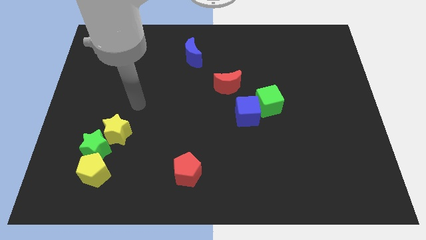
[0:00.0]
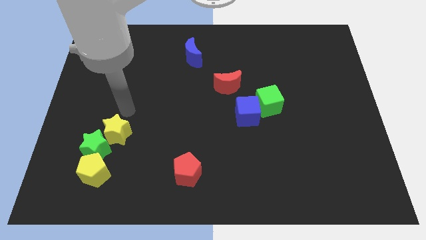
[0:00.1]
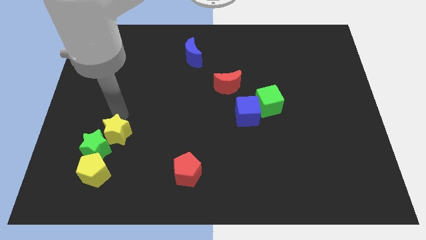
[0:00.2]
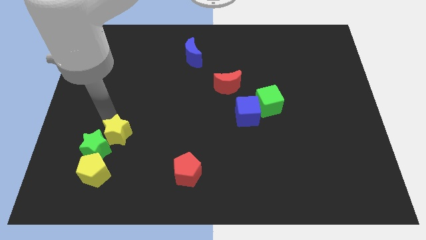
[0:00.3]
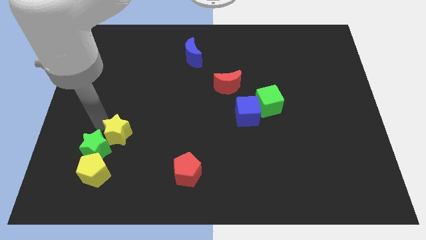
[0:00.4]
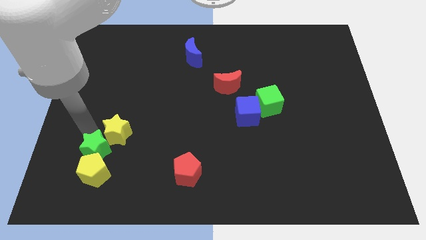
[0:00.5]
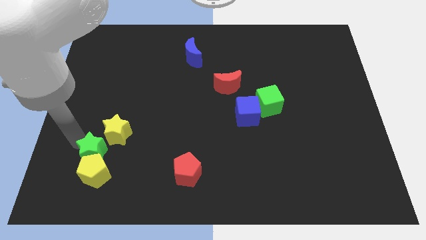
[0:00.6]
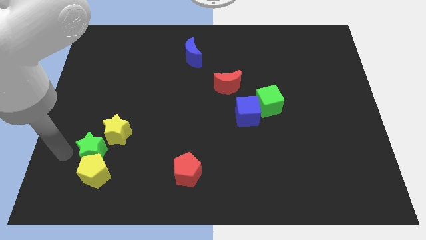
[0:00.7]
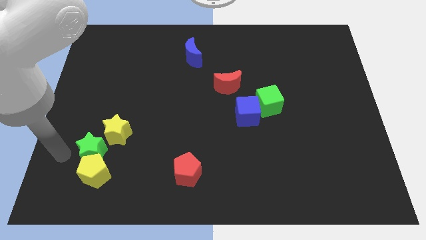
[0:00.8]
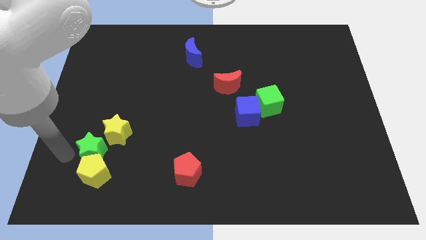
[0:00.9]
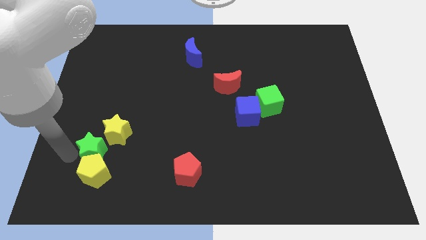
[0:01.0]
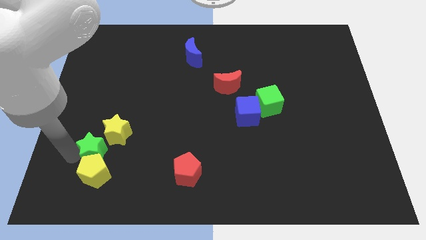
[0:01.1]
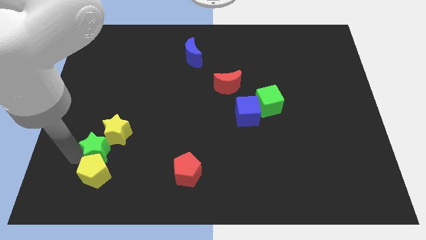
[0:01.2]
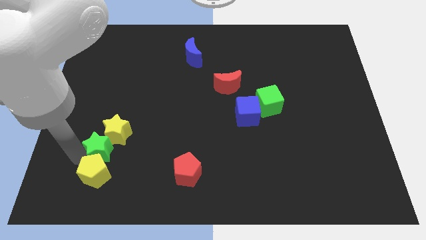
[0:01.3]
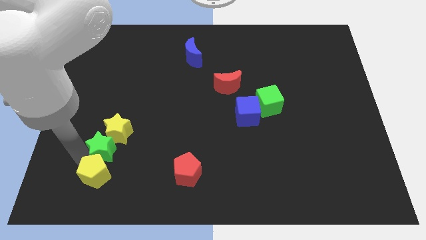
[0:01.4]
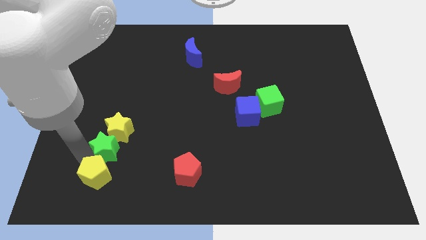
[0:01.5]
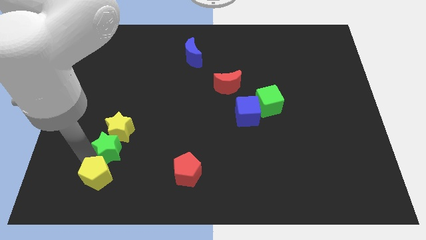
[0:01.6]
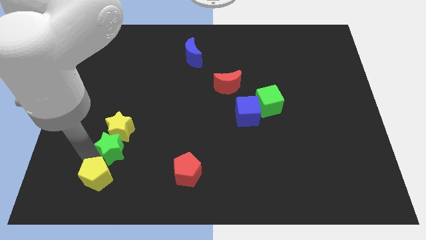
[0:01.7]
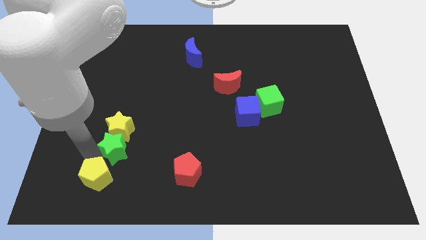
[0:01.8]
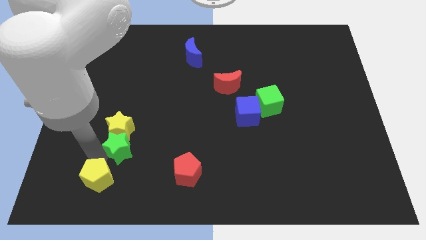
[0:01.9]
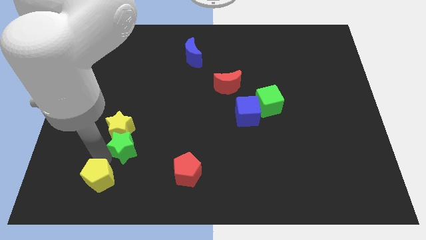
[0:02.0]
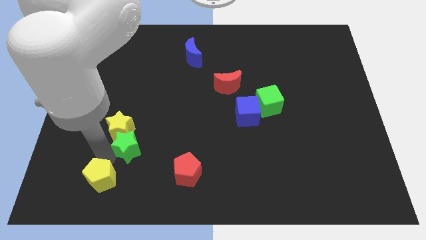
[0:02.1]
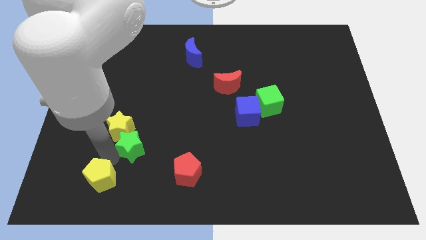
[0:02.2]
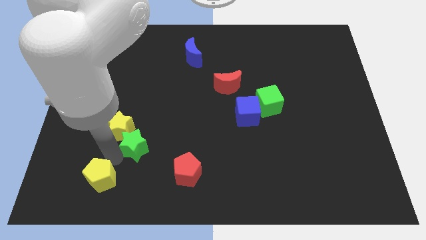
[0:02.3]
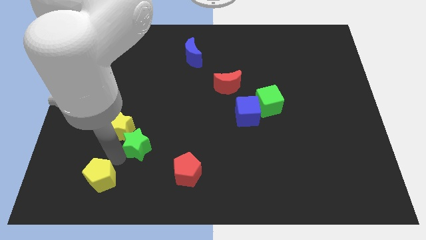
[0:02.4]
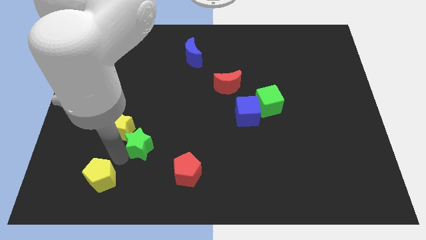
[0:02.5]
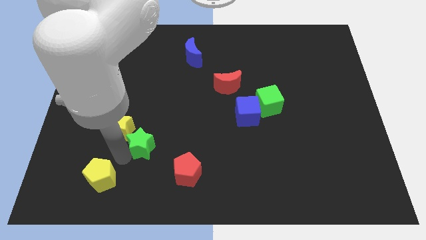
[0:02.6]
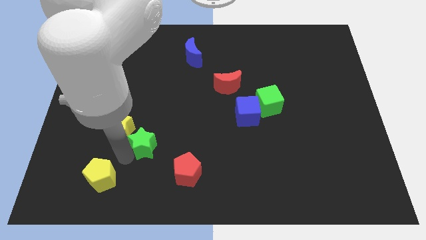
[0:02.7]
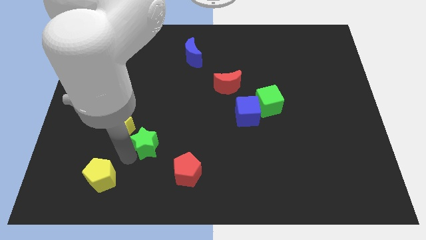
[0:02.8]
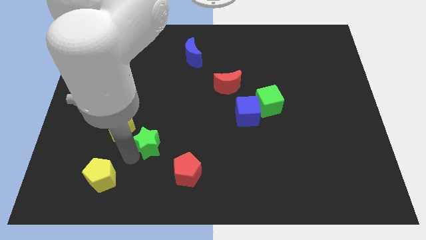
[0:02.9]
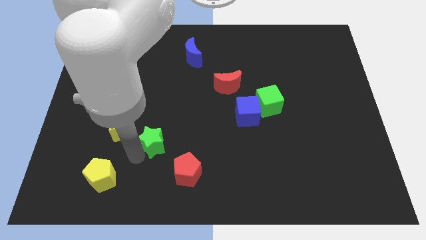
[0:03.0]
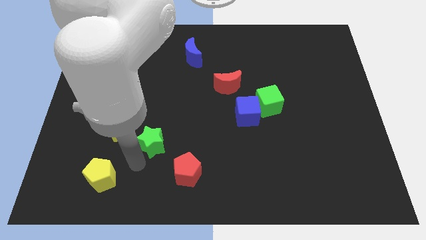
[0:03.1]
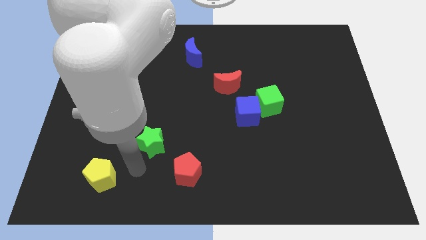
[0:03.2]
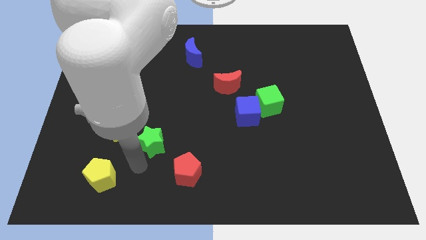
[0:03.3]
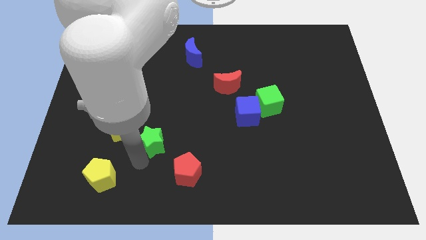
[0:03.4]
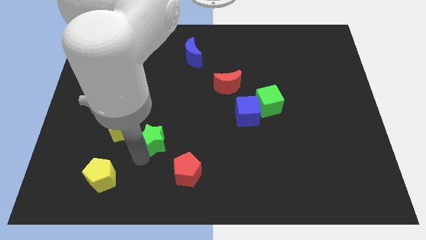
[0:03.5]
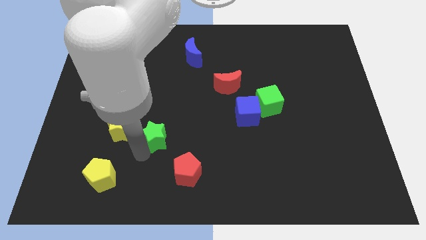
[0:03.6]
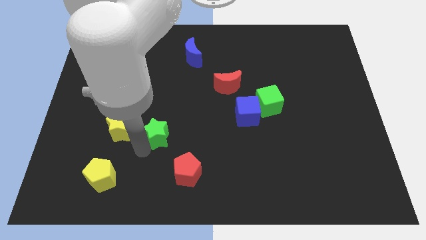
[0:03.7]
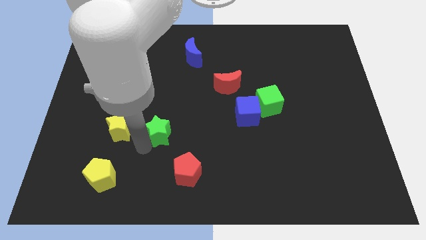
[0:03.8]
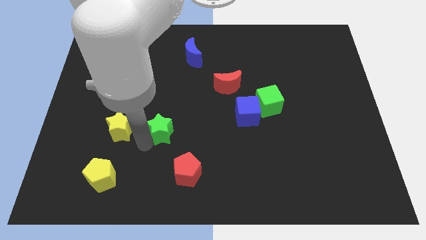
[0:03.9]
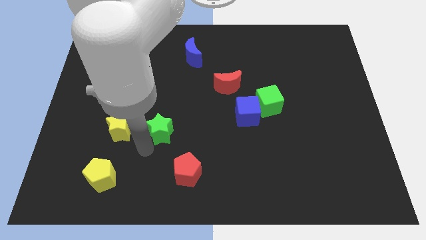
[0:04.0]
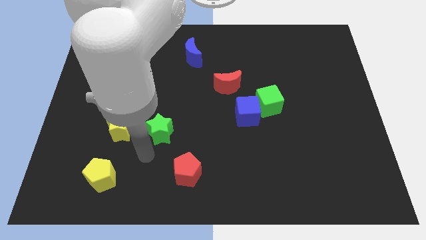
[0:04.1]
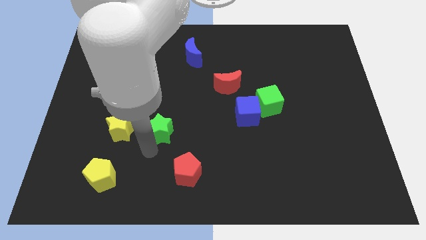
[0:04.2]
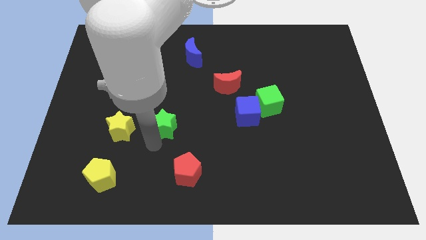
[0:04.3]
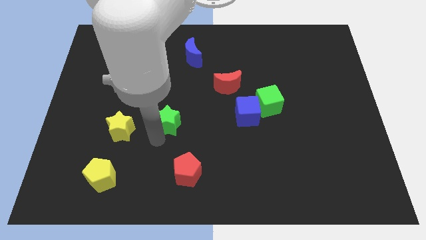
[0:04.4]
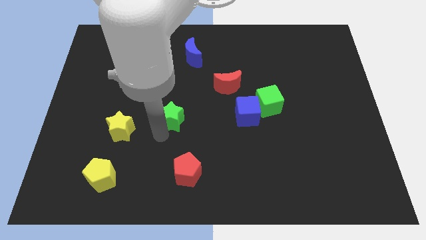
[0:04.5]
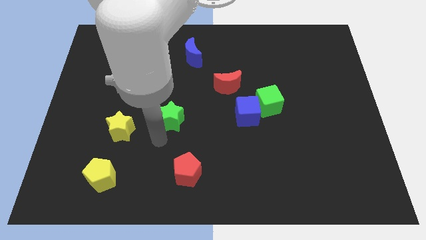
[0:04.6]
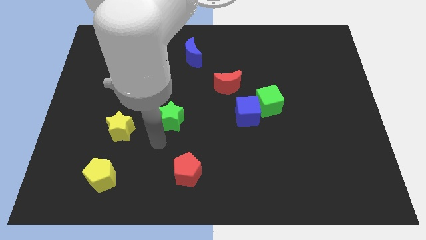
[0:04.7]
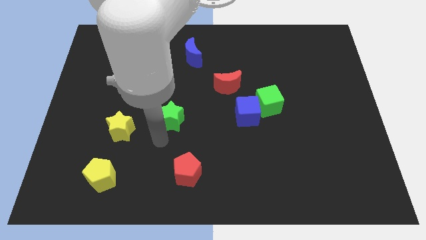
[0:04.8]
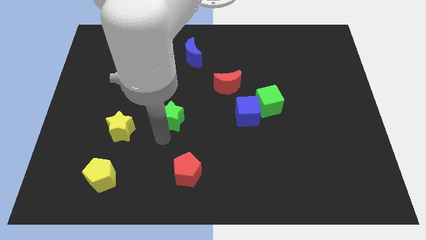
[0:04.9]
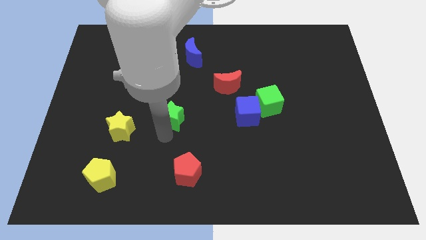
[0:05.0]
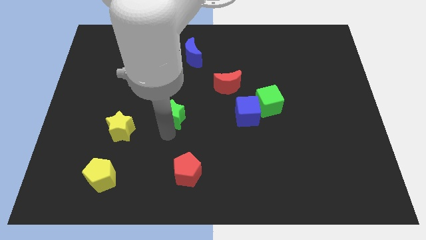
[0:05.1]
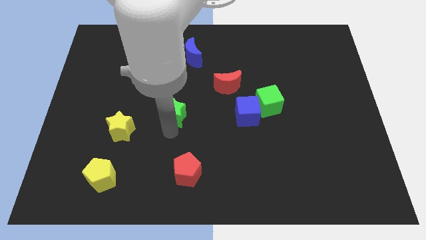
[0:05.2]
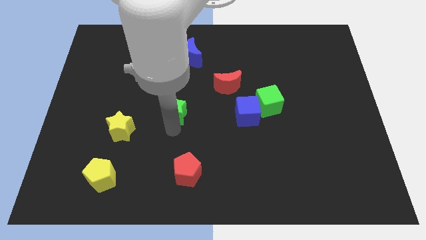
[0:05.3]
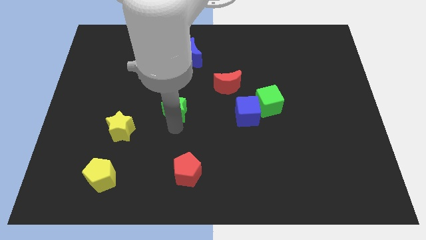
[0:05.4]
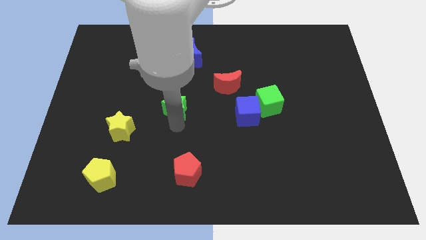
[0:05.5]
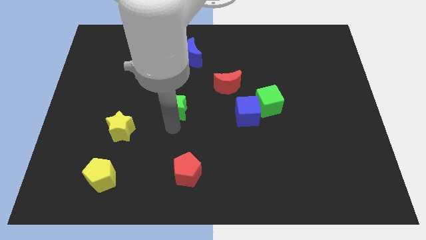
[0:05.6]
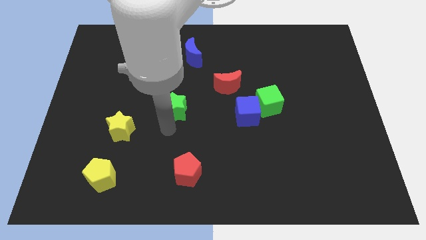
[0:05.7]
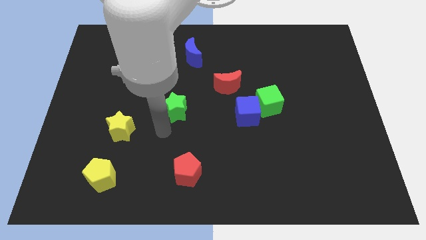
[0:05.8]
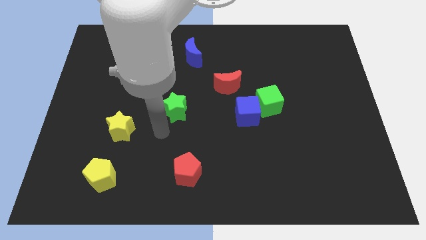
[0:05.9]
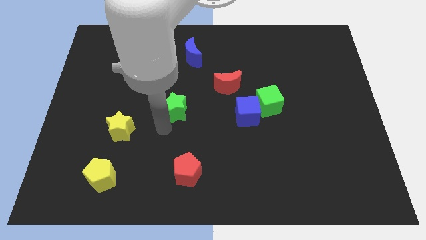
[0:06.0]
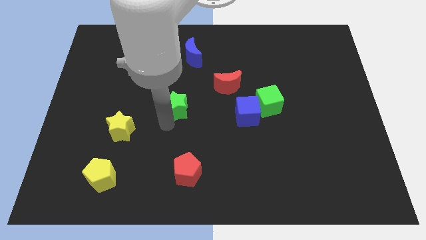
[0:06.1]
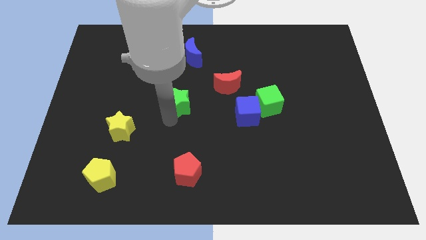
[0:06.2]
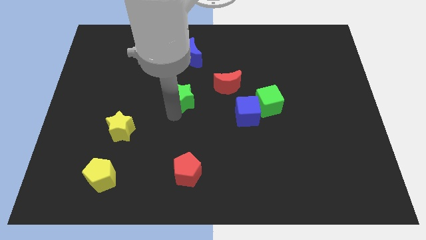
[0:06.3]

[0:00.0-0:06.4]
push the green star to the bottom side of the blue moon

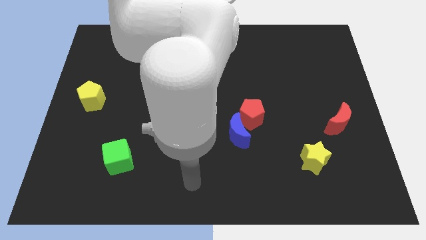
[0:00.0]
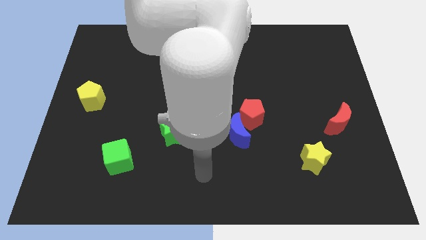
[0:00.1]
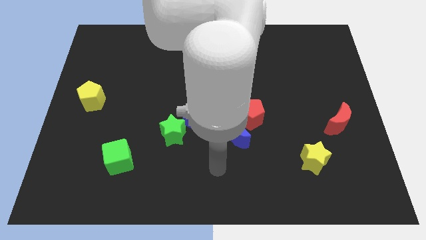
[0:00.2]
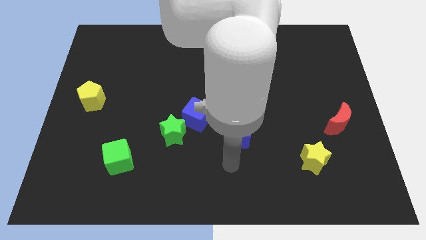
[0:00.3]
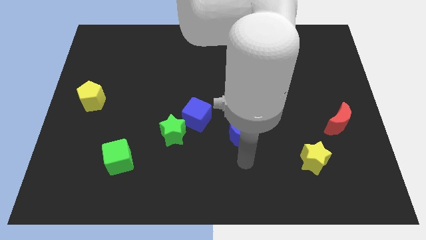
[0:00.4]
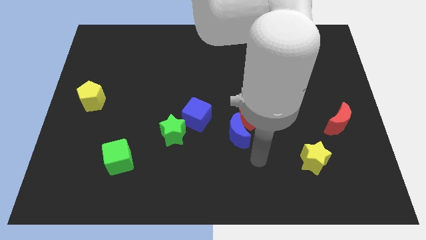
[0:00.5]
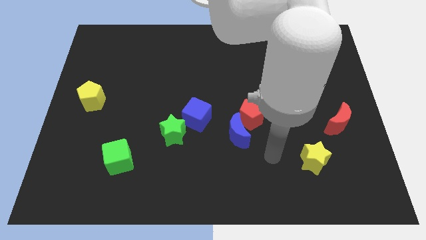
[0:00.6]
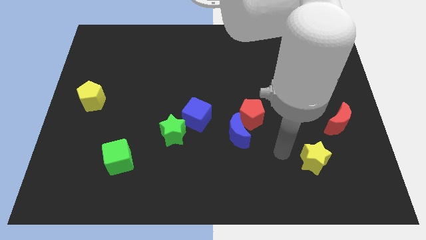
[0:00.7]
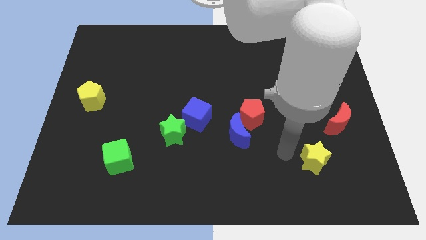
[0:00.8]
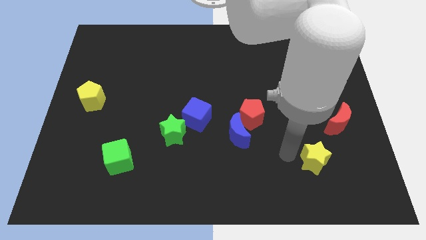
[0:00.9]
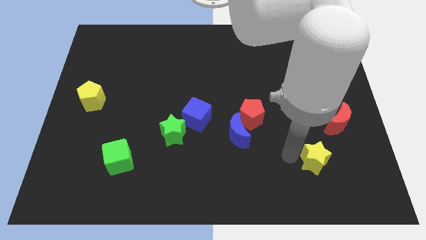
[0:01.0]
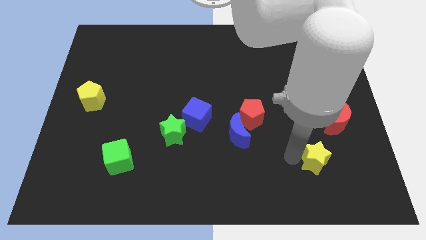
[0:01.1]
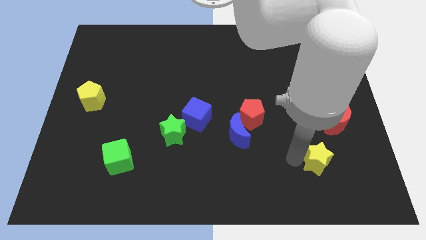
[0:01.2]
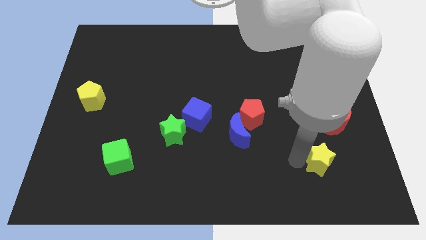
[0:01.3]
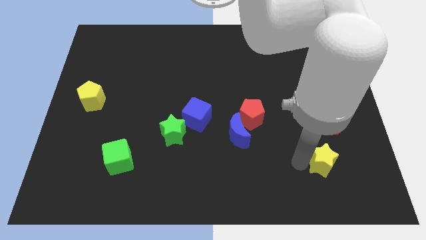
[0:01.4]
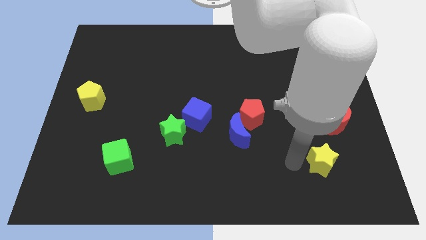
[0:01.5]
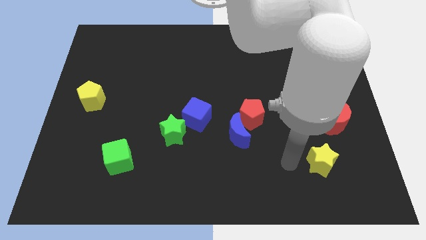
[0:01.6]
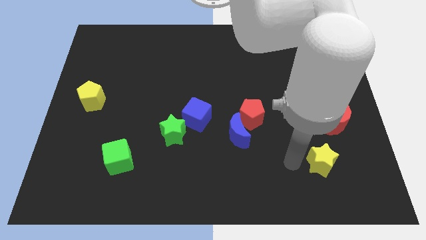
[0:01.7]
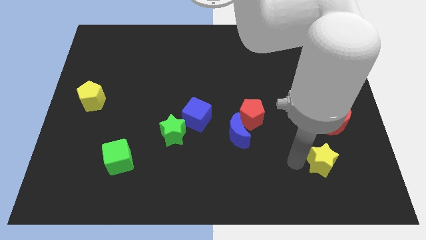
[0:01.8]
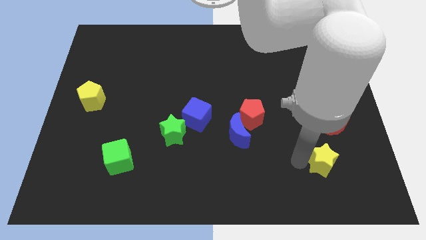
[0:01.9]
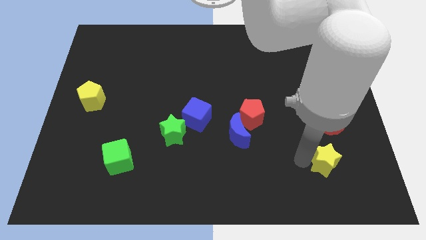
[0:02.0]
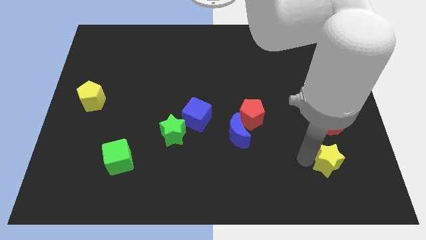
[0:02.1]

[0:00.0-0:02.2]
move the yellow star below the red moon

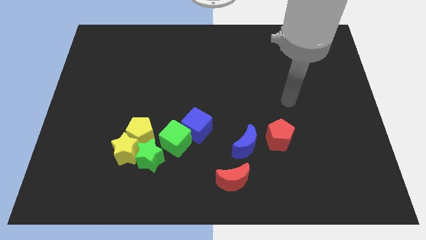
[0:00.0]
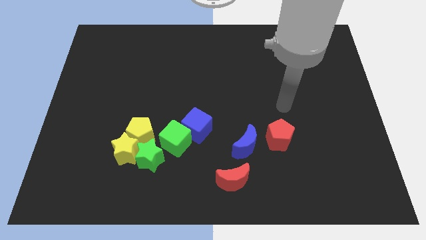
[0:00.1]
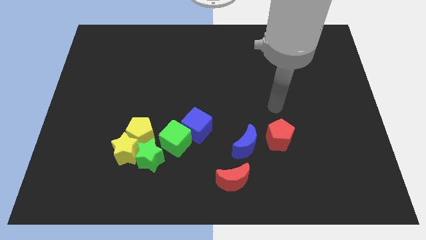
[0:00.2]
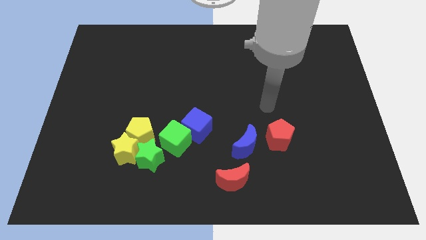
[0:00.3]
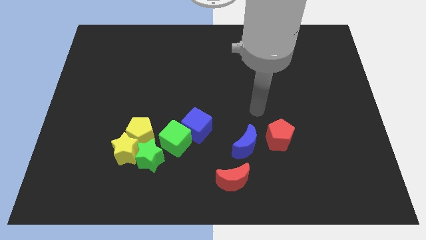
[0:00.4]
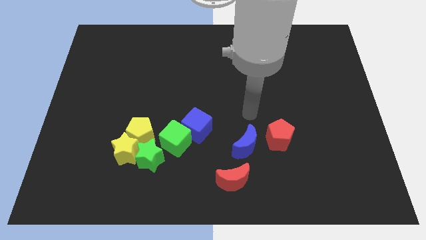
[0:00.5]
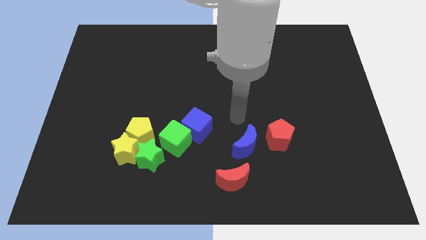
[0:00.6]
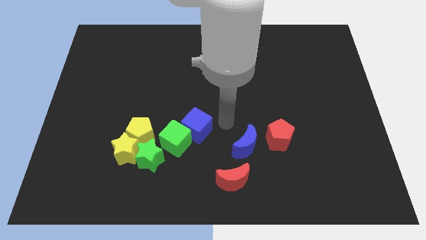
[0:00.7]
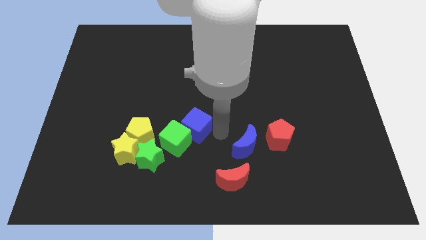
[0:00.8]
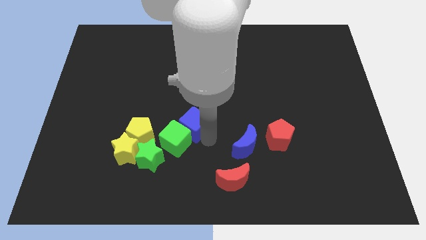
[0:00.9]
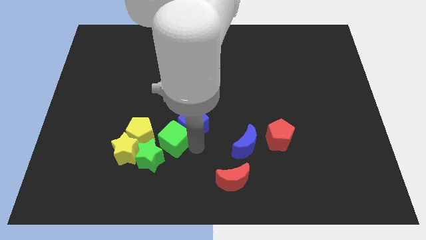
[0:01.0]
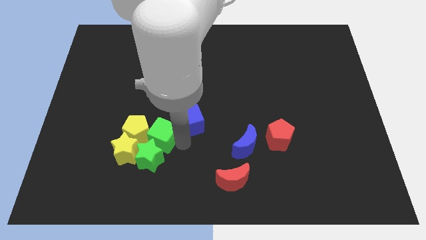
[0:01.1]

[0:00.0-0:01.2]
put the yellow pentagon diagonally down and to the left of the green cube
